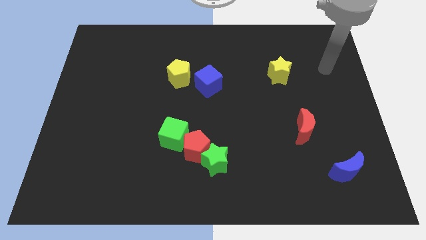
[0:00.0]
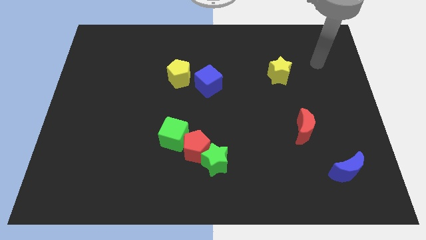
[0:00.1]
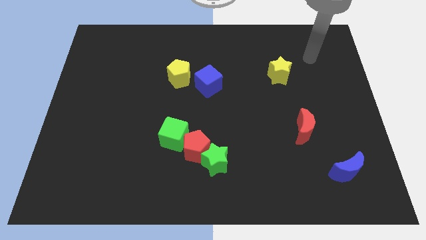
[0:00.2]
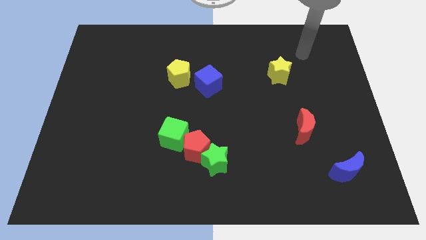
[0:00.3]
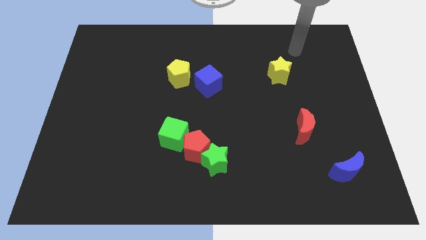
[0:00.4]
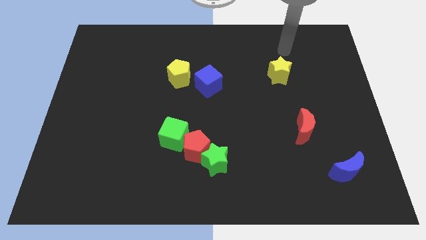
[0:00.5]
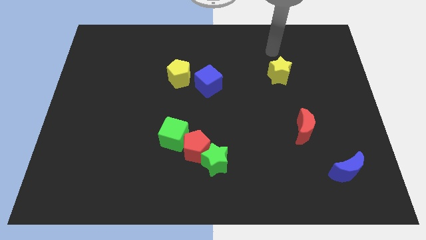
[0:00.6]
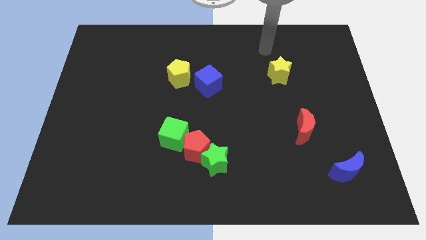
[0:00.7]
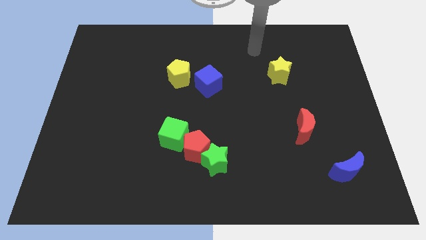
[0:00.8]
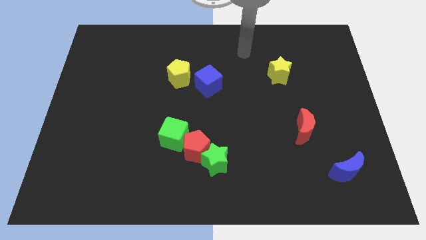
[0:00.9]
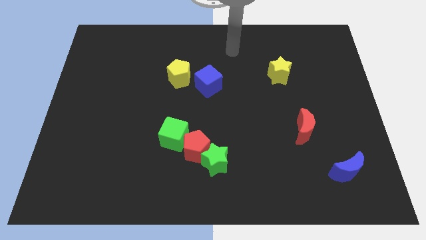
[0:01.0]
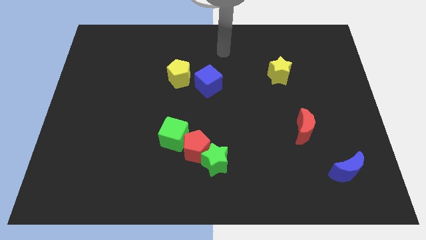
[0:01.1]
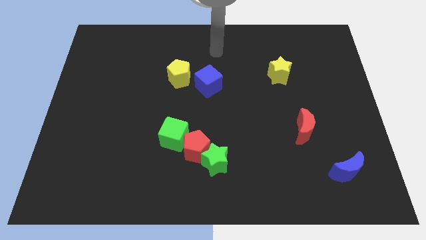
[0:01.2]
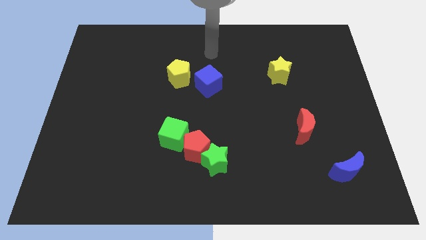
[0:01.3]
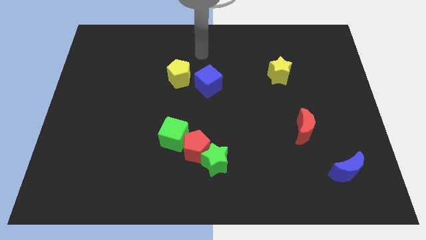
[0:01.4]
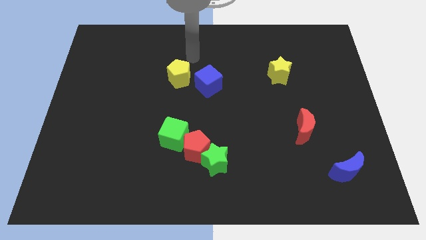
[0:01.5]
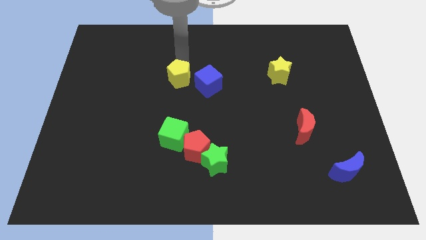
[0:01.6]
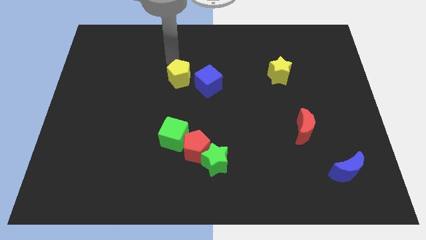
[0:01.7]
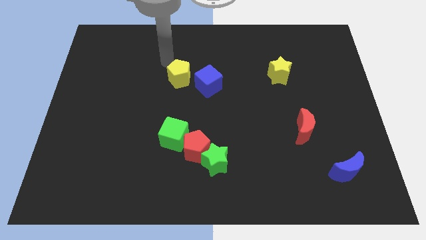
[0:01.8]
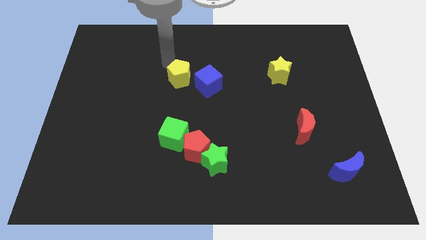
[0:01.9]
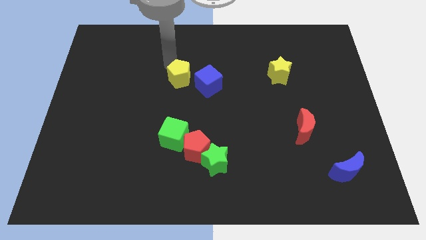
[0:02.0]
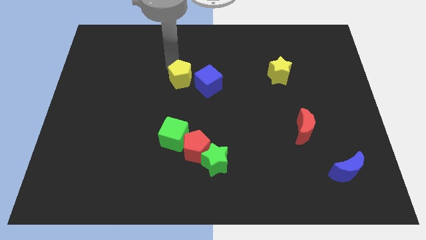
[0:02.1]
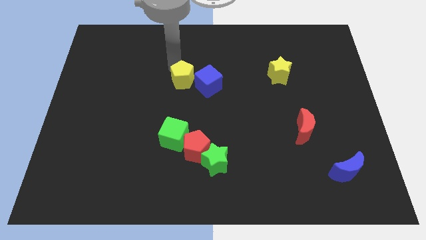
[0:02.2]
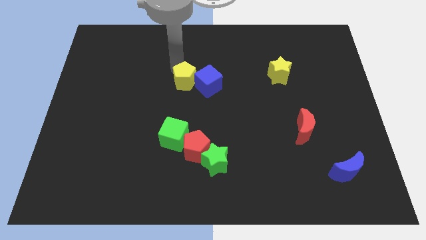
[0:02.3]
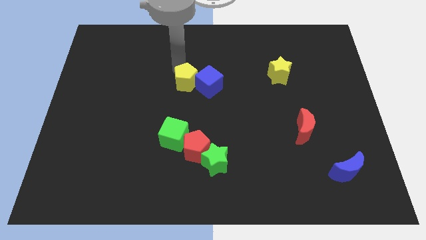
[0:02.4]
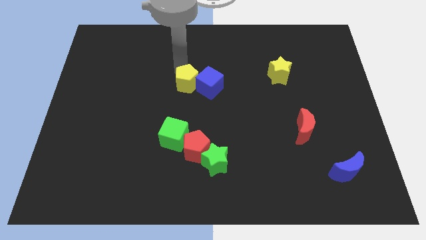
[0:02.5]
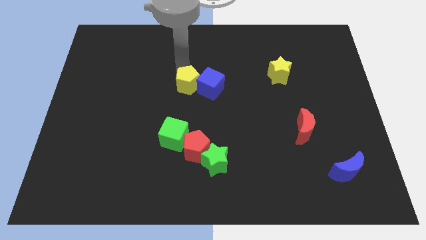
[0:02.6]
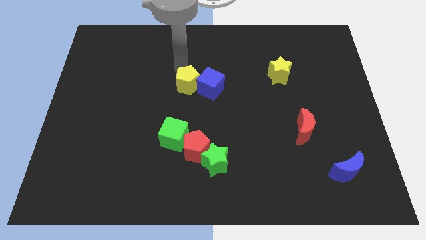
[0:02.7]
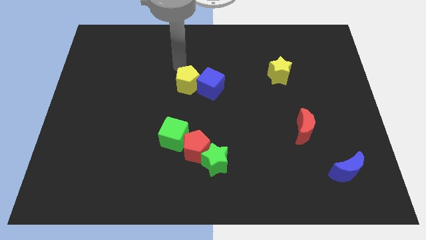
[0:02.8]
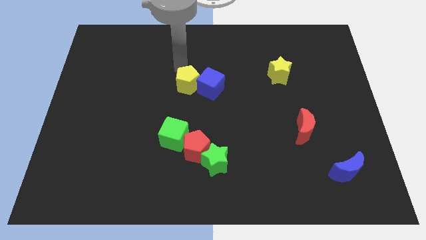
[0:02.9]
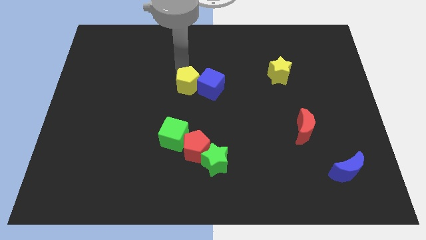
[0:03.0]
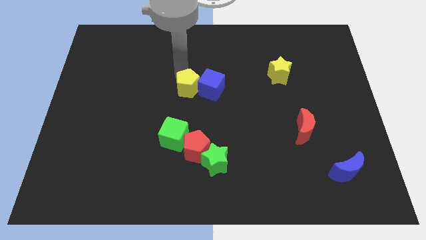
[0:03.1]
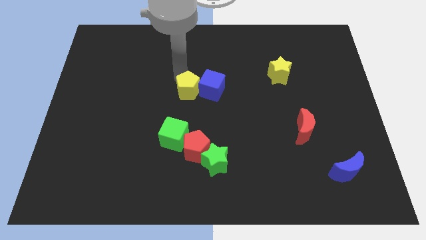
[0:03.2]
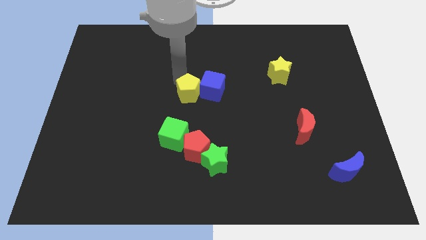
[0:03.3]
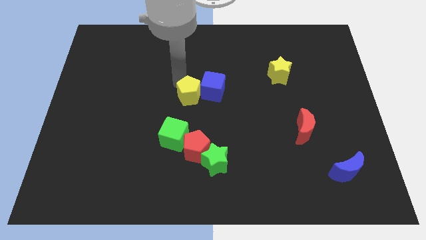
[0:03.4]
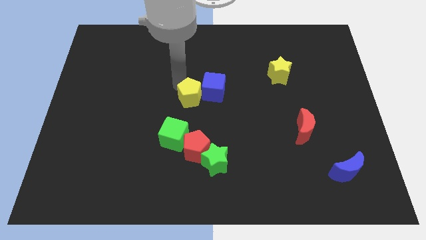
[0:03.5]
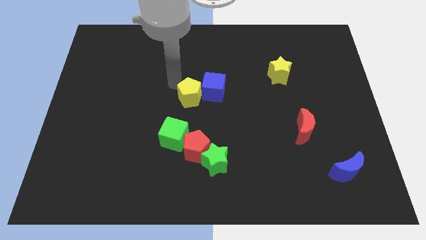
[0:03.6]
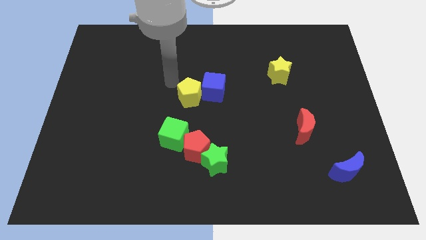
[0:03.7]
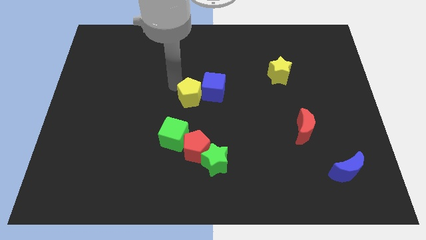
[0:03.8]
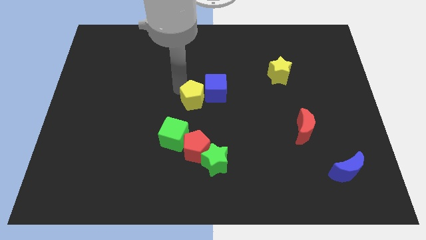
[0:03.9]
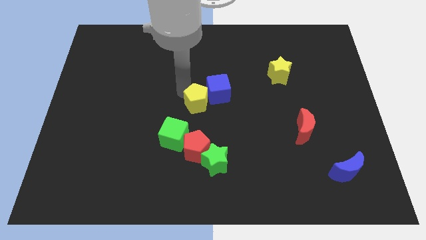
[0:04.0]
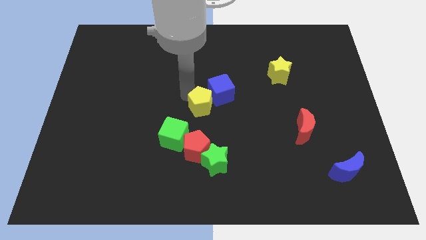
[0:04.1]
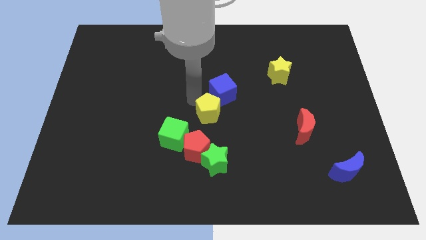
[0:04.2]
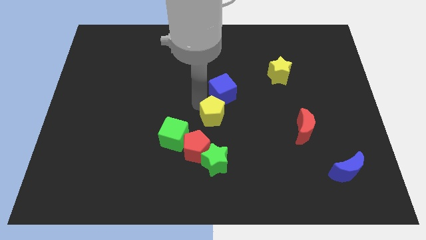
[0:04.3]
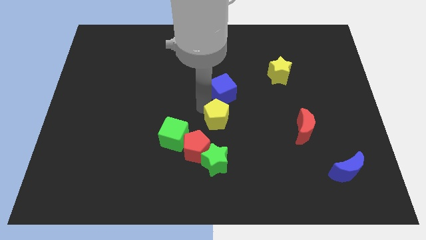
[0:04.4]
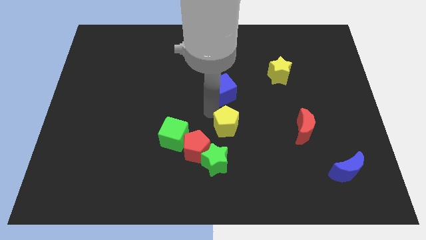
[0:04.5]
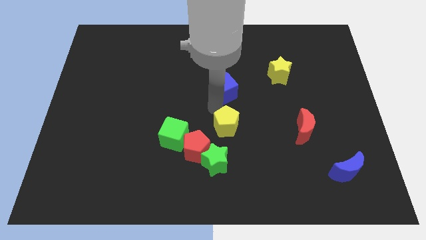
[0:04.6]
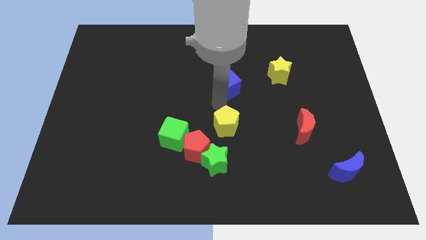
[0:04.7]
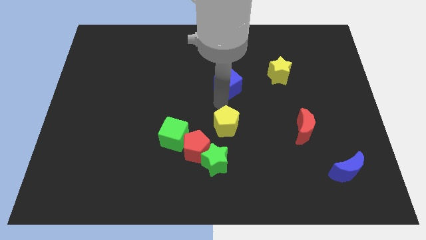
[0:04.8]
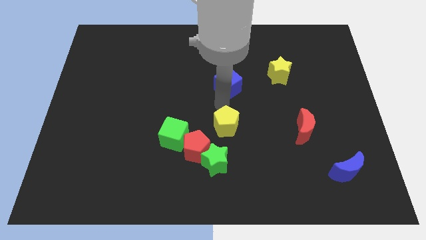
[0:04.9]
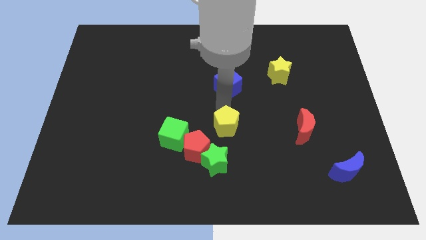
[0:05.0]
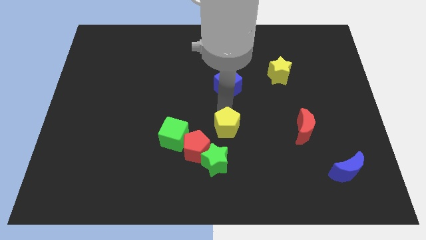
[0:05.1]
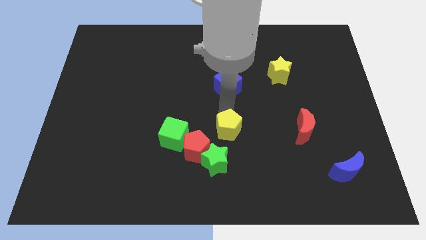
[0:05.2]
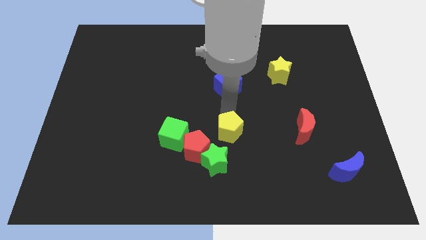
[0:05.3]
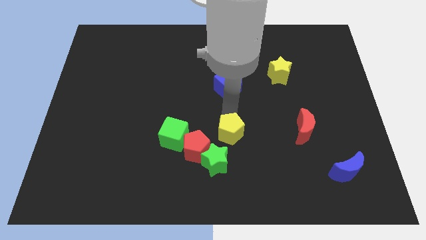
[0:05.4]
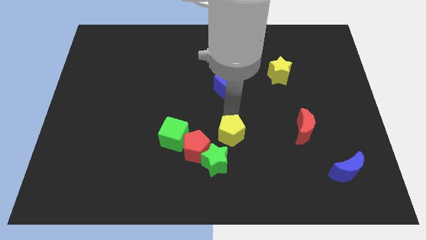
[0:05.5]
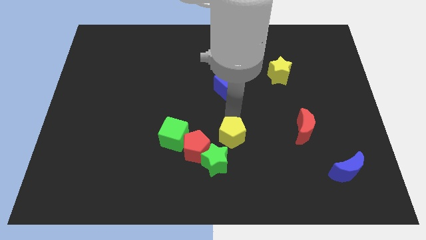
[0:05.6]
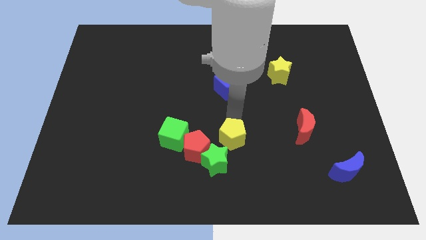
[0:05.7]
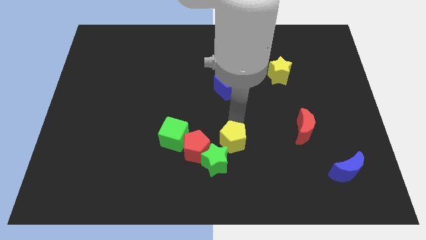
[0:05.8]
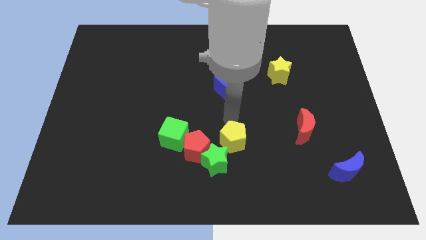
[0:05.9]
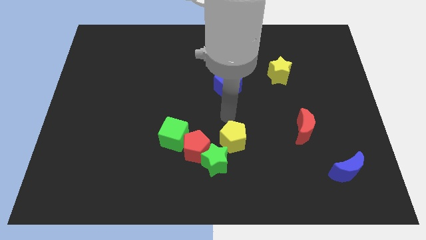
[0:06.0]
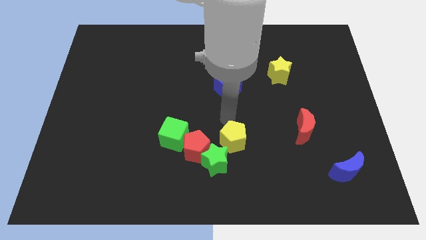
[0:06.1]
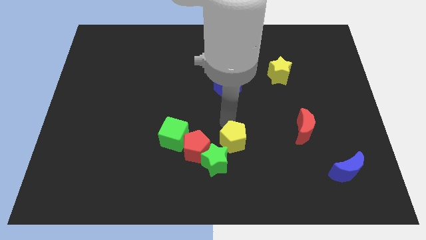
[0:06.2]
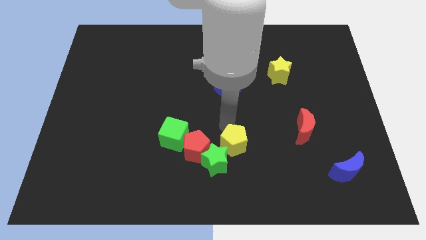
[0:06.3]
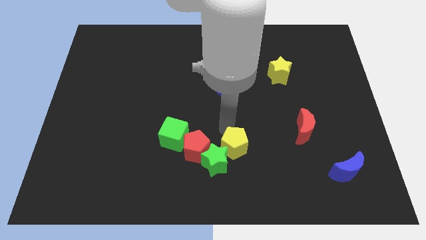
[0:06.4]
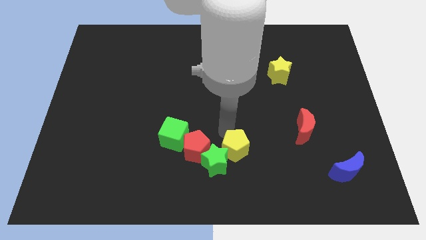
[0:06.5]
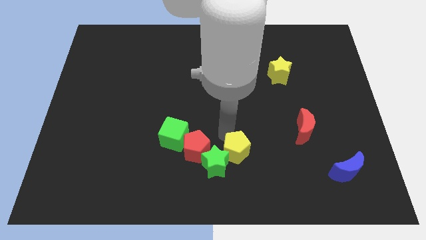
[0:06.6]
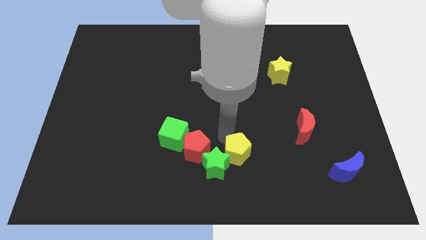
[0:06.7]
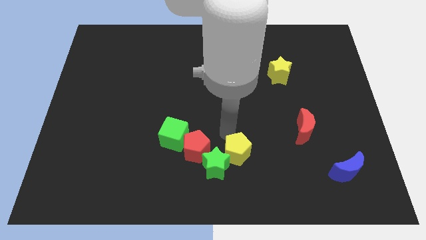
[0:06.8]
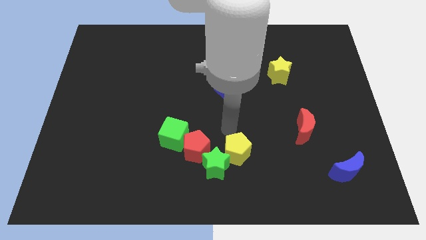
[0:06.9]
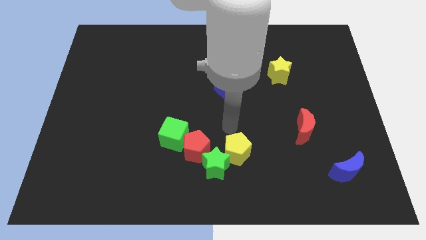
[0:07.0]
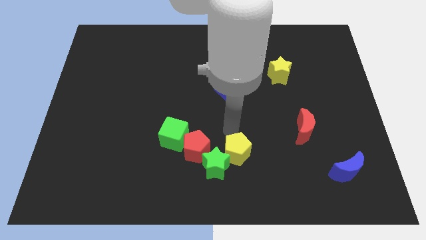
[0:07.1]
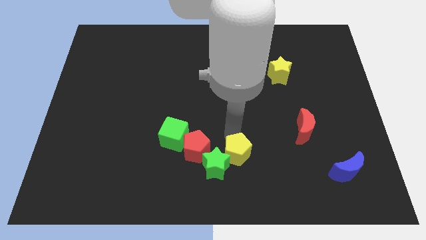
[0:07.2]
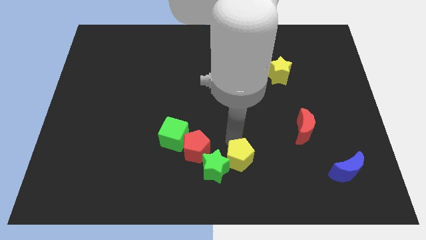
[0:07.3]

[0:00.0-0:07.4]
move the yellow pentagon to the bottom side

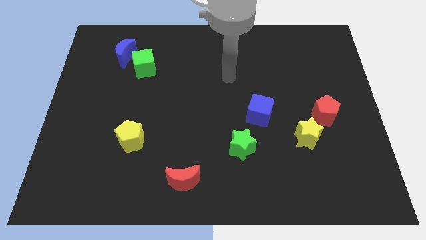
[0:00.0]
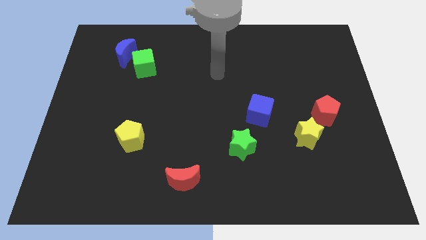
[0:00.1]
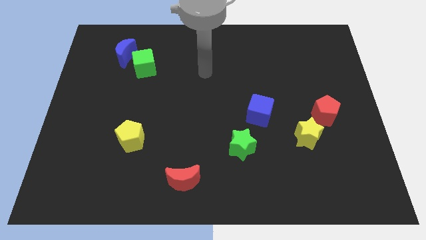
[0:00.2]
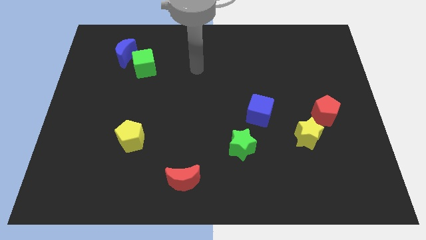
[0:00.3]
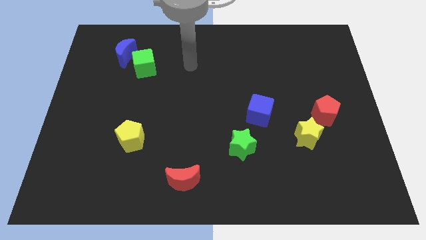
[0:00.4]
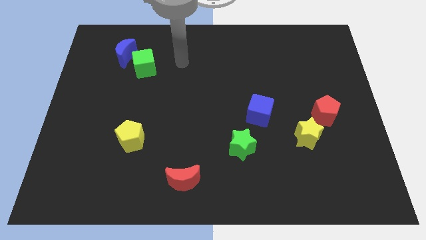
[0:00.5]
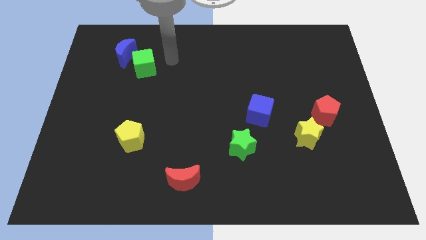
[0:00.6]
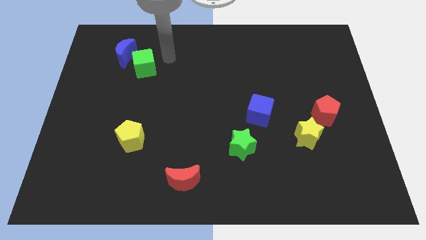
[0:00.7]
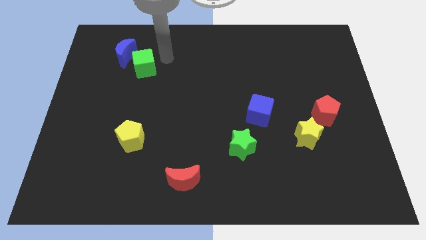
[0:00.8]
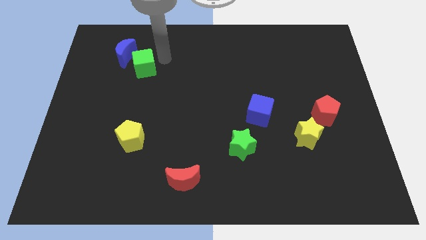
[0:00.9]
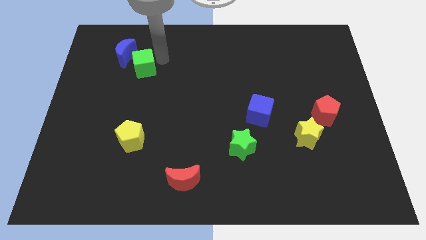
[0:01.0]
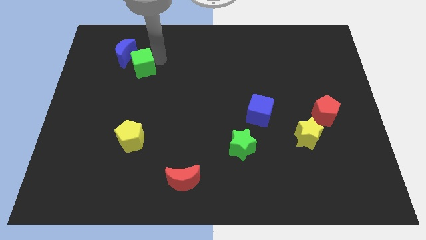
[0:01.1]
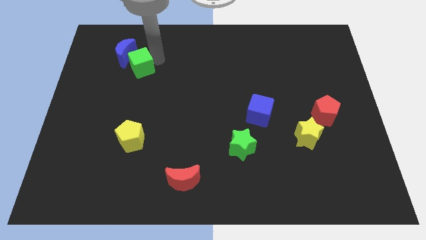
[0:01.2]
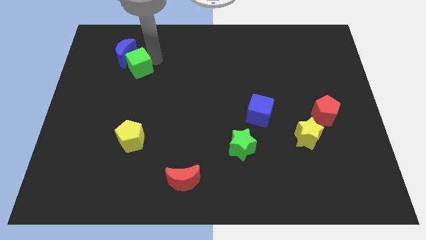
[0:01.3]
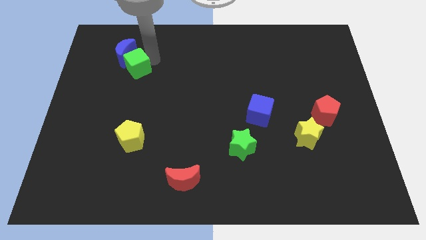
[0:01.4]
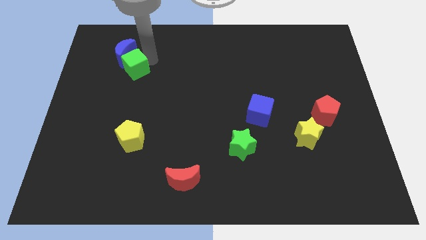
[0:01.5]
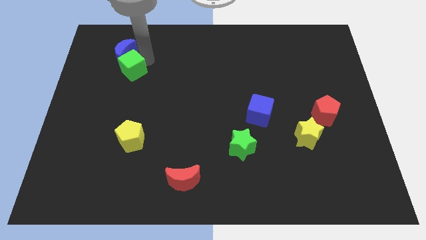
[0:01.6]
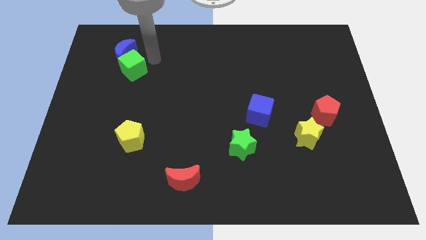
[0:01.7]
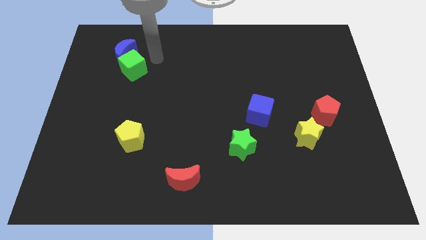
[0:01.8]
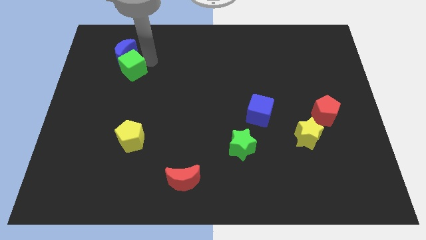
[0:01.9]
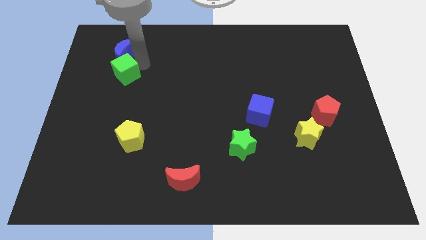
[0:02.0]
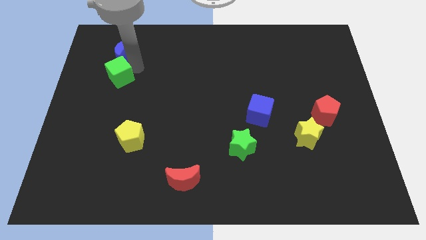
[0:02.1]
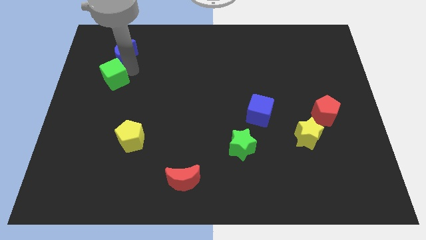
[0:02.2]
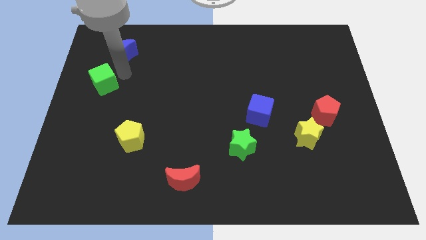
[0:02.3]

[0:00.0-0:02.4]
move the green cube to the center left
